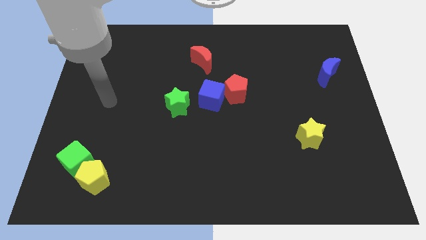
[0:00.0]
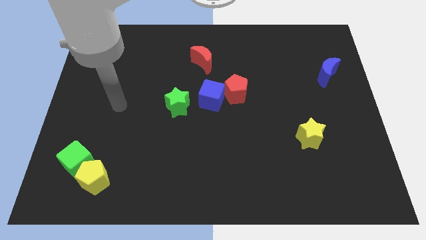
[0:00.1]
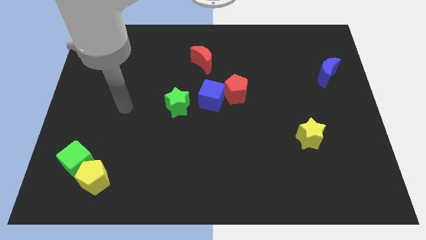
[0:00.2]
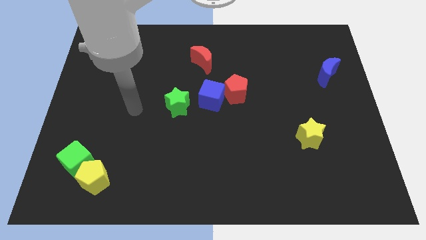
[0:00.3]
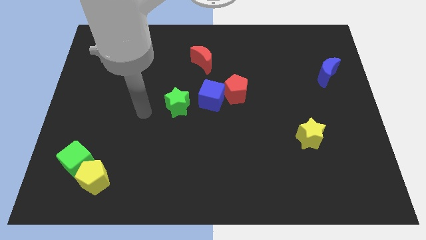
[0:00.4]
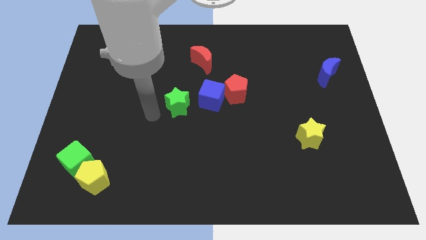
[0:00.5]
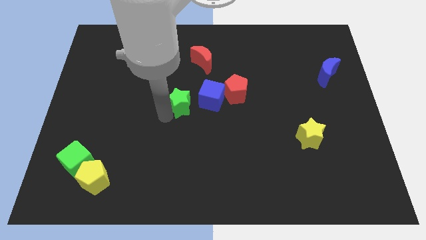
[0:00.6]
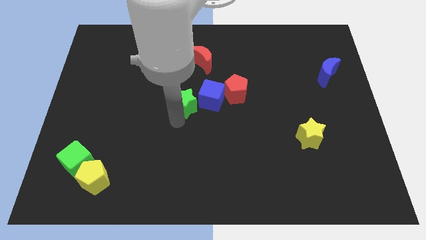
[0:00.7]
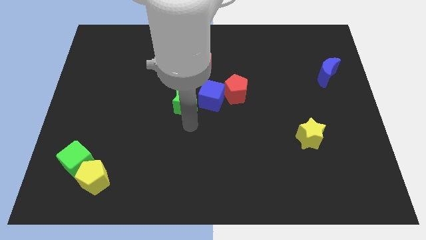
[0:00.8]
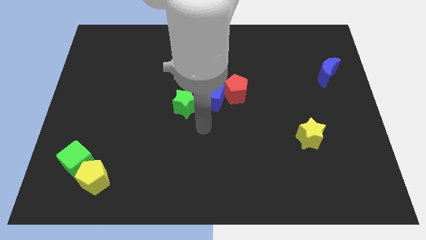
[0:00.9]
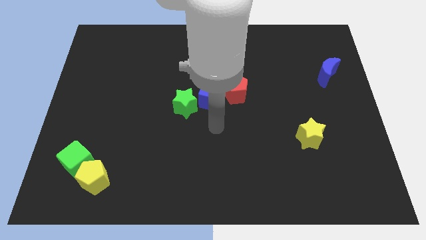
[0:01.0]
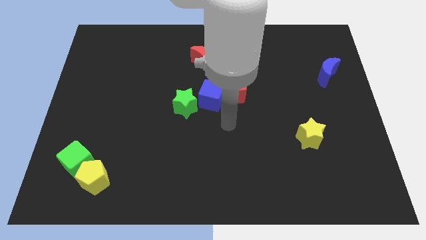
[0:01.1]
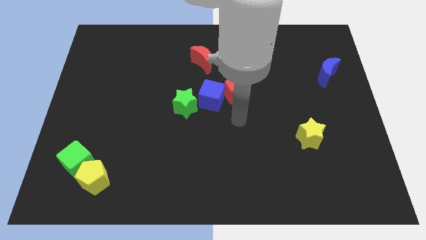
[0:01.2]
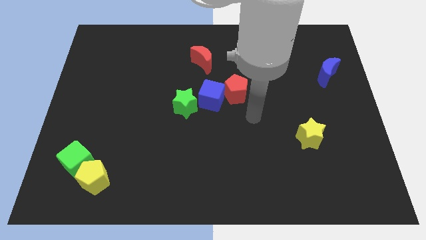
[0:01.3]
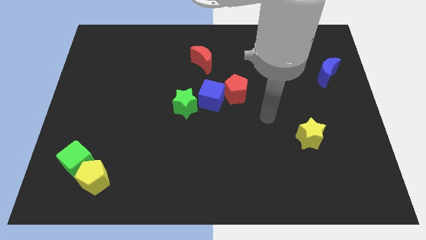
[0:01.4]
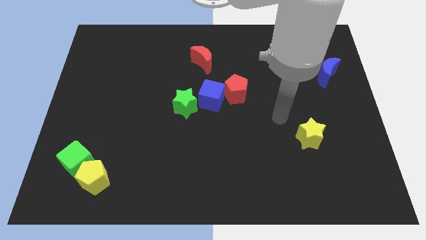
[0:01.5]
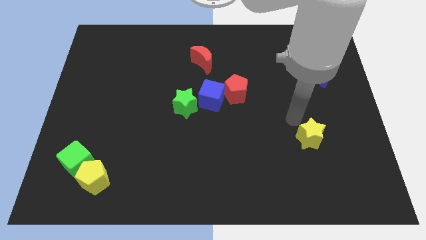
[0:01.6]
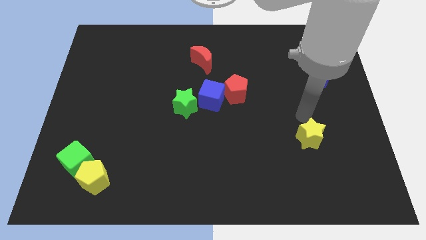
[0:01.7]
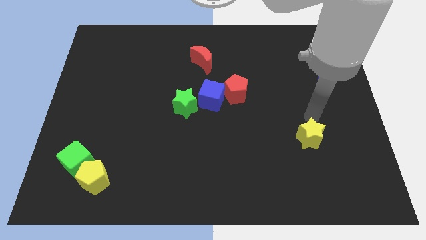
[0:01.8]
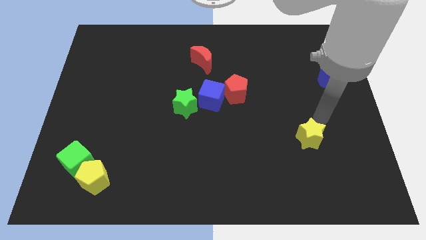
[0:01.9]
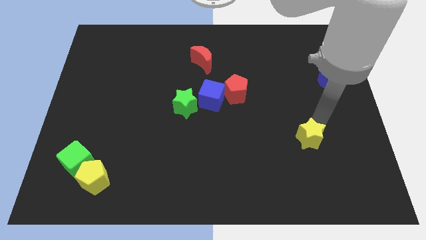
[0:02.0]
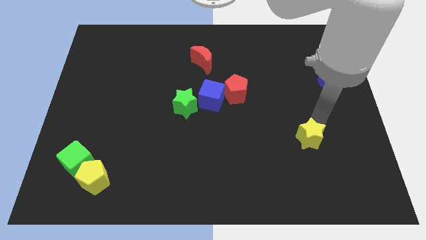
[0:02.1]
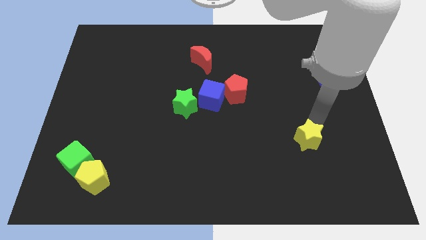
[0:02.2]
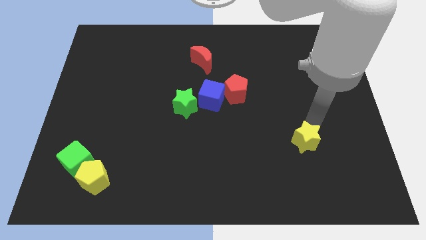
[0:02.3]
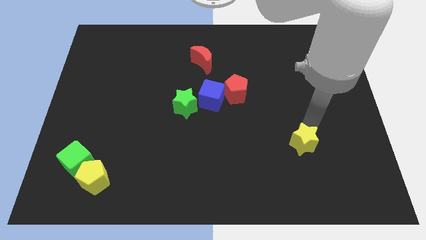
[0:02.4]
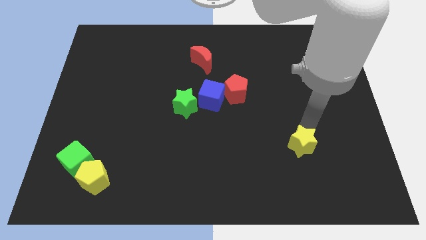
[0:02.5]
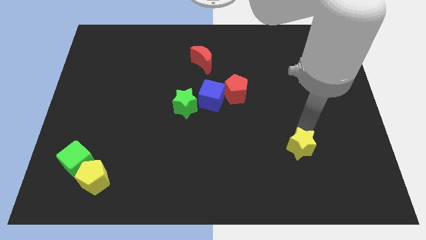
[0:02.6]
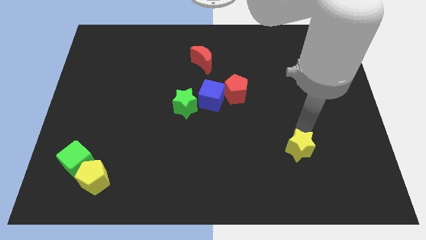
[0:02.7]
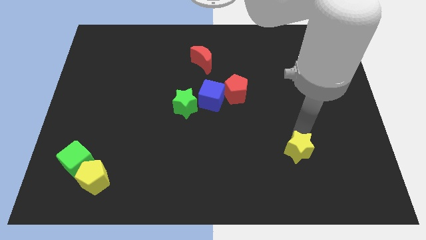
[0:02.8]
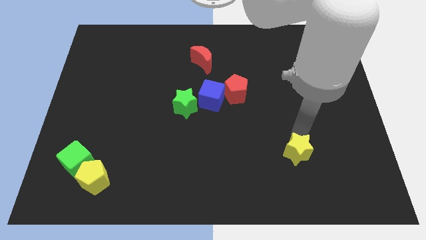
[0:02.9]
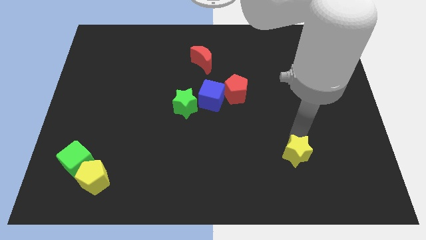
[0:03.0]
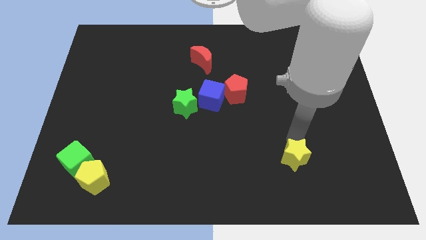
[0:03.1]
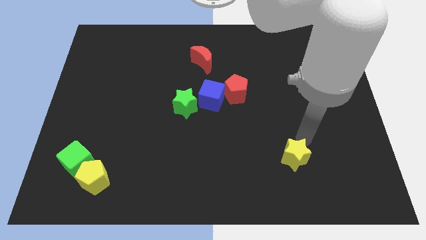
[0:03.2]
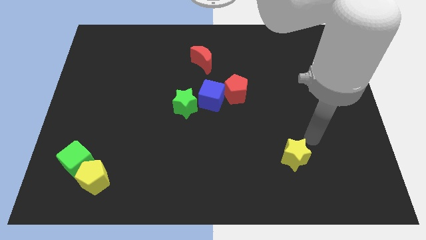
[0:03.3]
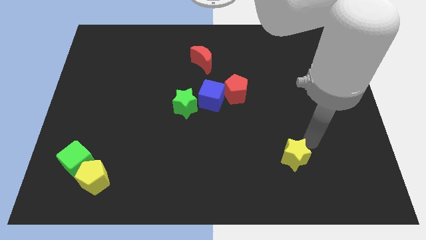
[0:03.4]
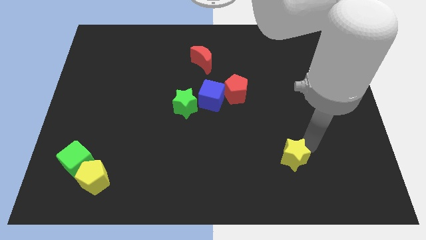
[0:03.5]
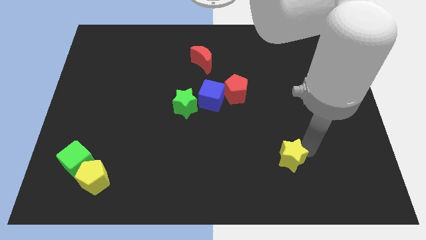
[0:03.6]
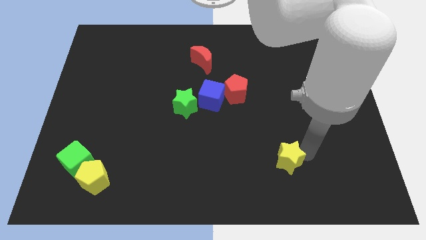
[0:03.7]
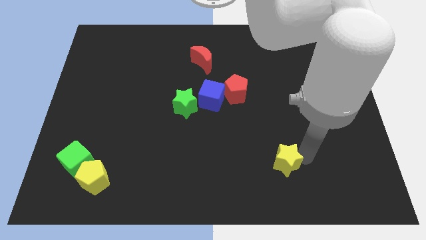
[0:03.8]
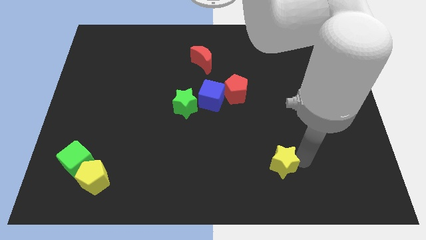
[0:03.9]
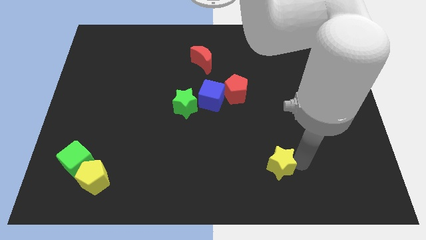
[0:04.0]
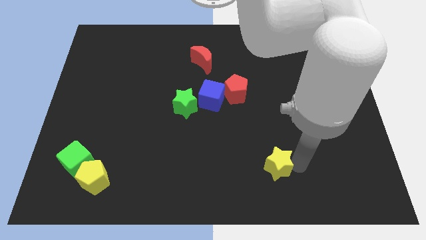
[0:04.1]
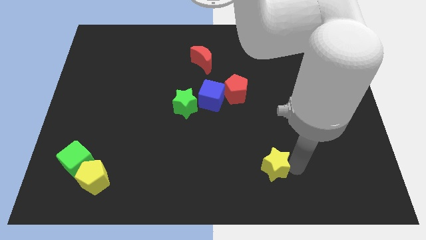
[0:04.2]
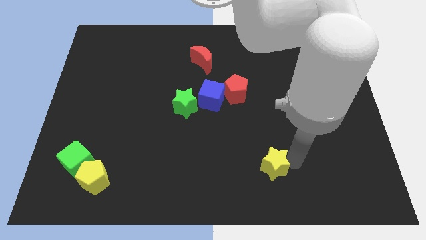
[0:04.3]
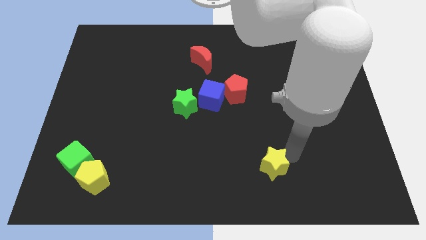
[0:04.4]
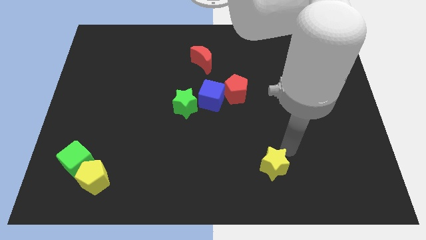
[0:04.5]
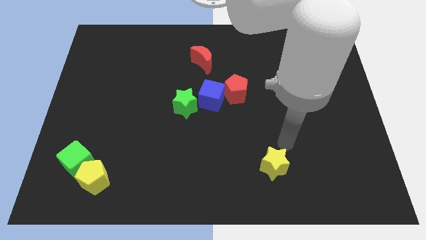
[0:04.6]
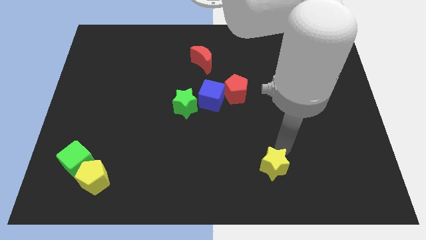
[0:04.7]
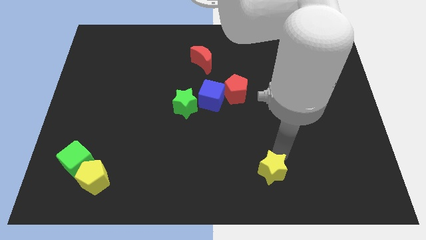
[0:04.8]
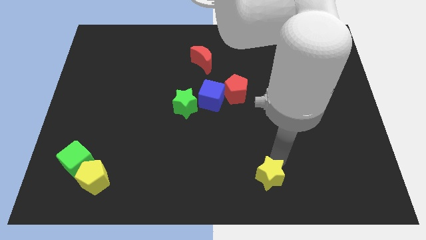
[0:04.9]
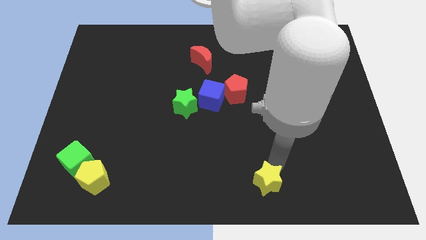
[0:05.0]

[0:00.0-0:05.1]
slide the yellow star to the bottom

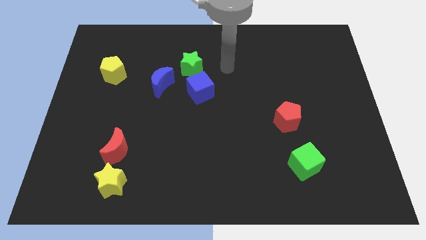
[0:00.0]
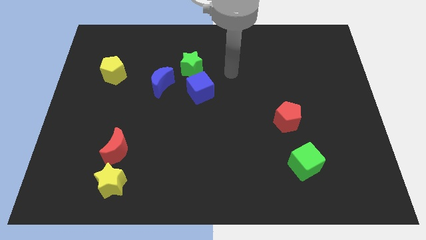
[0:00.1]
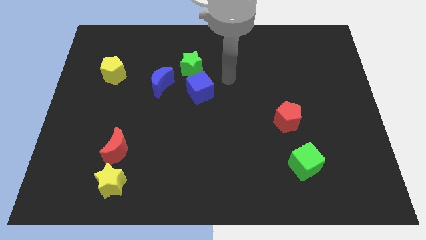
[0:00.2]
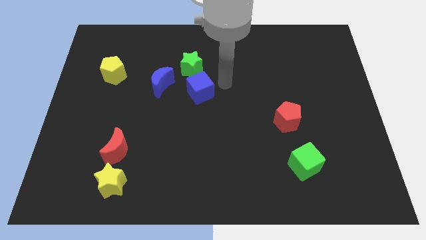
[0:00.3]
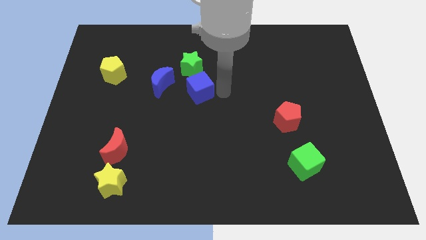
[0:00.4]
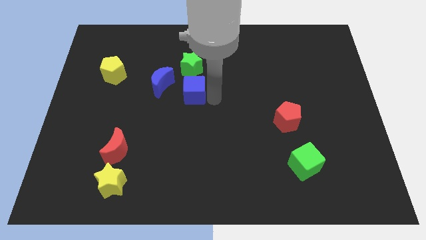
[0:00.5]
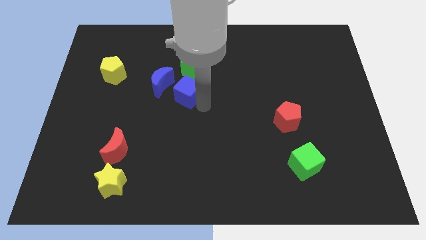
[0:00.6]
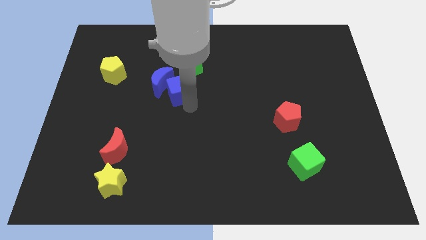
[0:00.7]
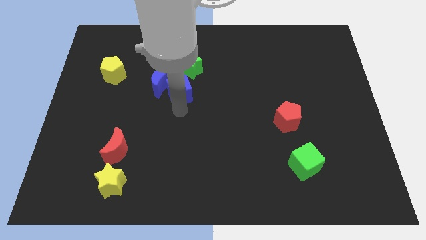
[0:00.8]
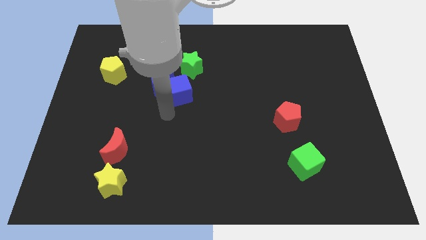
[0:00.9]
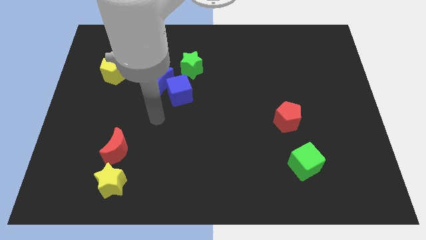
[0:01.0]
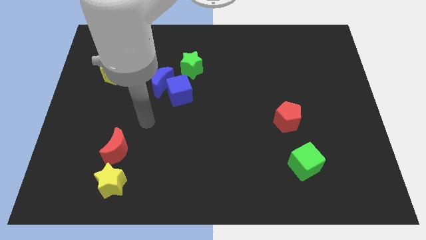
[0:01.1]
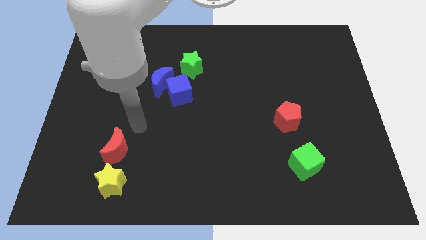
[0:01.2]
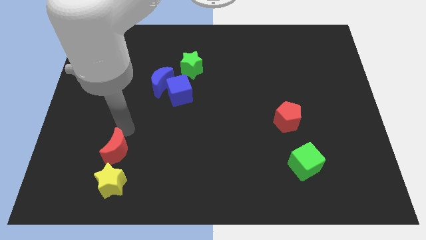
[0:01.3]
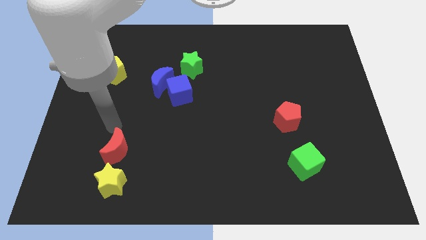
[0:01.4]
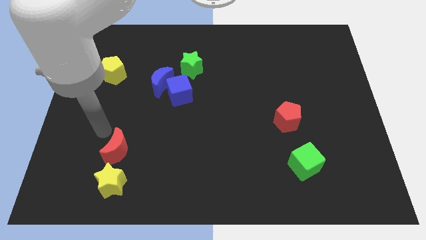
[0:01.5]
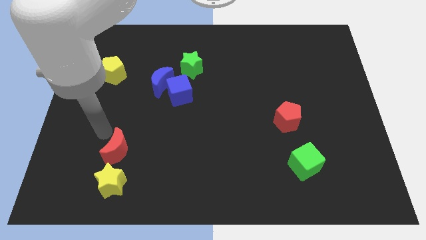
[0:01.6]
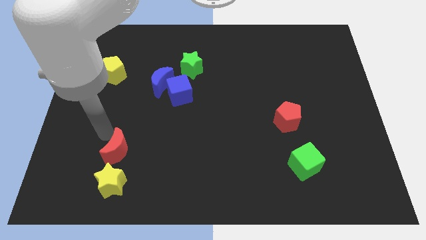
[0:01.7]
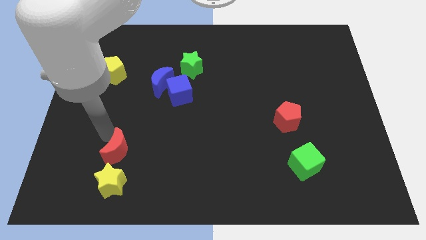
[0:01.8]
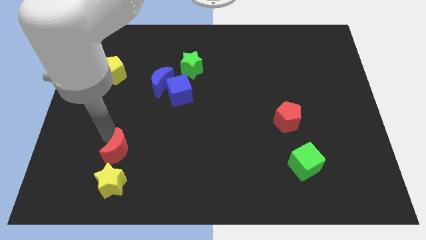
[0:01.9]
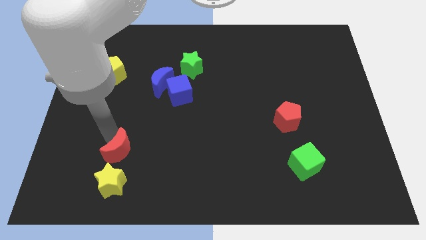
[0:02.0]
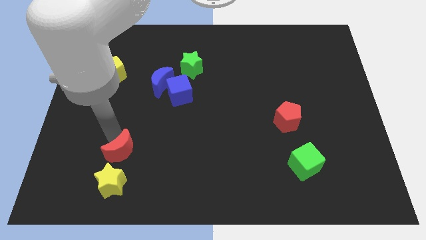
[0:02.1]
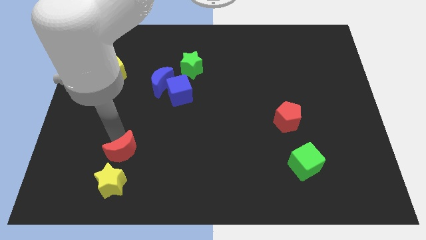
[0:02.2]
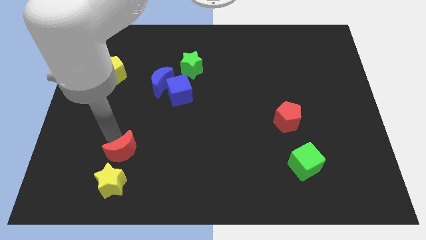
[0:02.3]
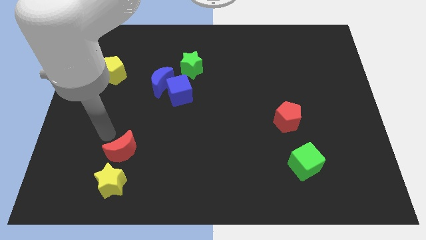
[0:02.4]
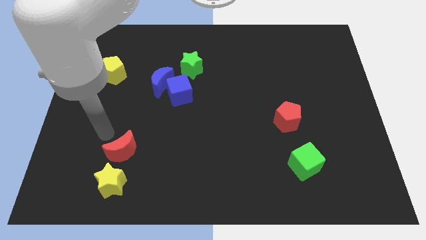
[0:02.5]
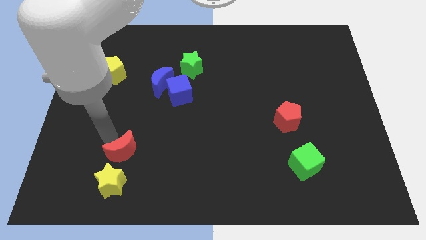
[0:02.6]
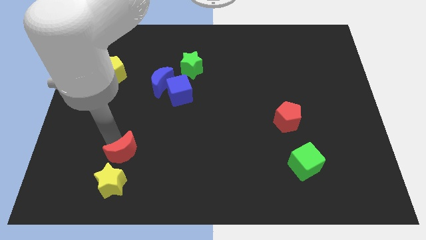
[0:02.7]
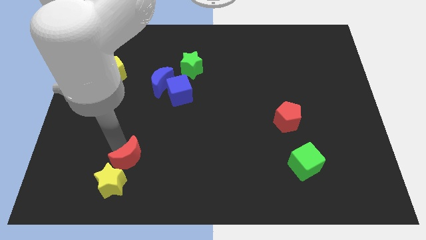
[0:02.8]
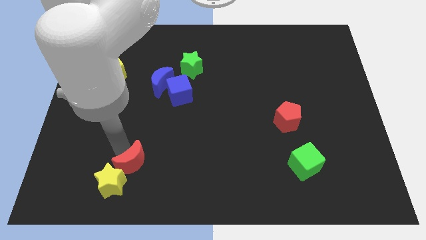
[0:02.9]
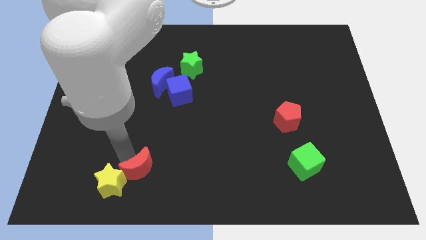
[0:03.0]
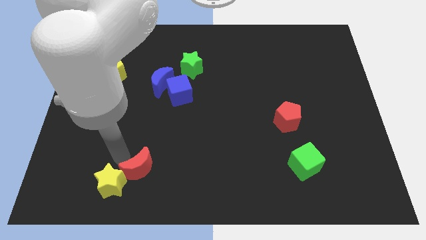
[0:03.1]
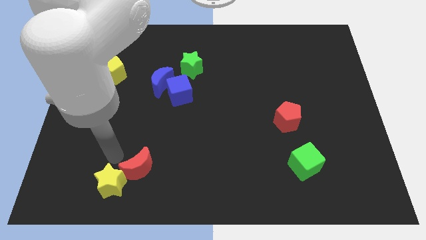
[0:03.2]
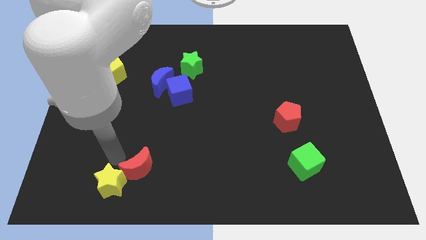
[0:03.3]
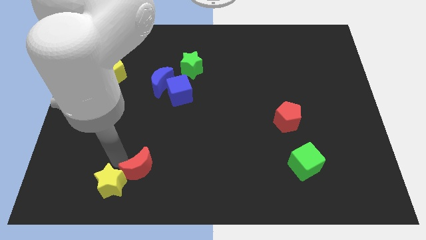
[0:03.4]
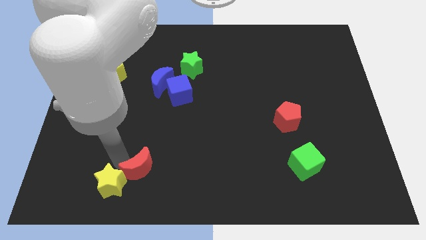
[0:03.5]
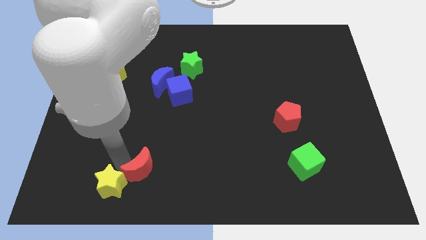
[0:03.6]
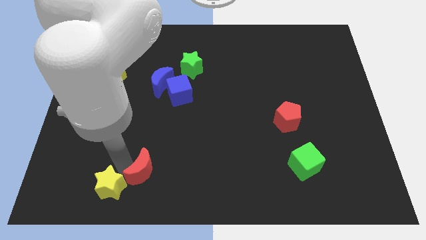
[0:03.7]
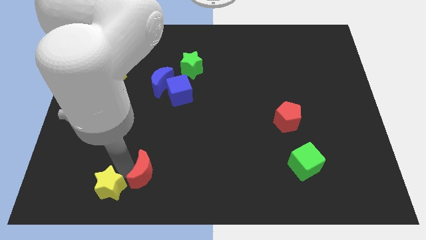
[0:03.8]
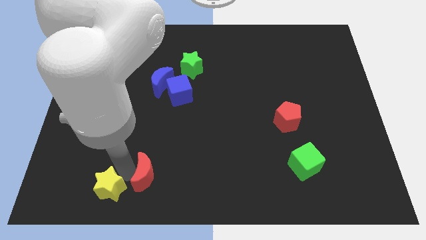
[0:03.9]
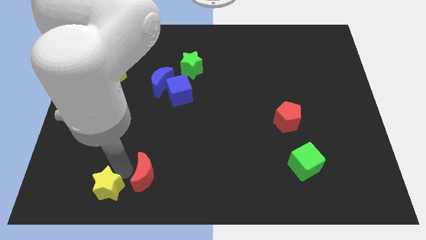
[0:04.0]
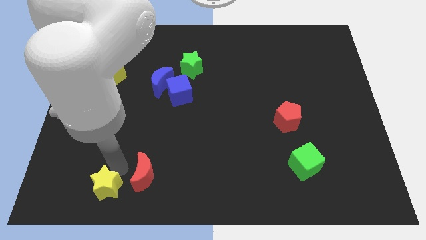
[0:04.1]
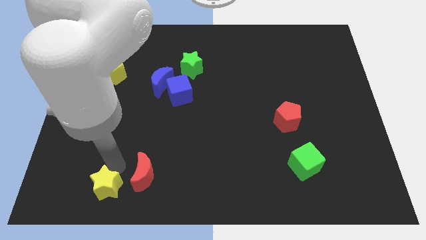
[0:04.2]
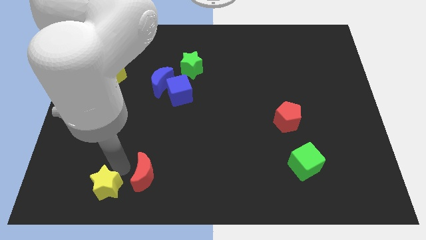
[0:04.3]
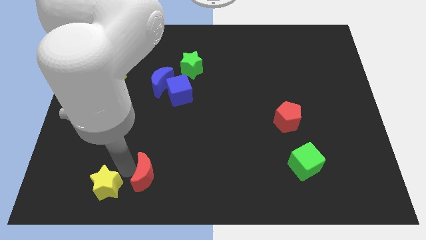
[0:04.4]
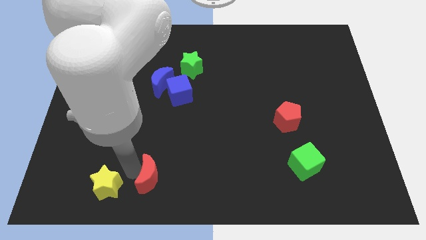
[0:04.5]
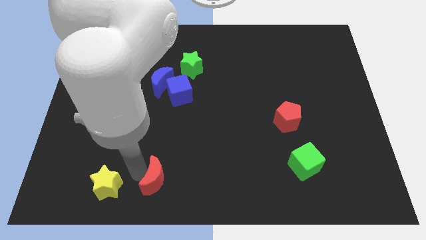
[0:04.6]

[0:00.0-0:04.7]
push the red moon to the bottom side
